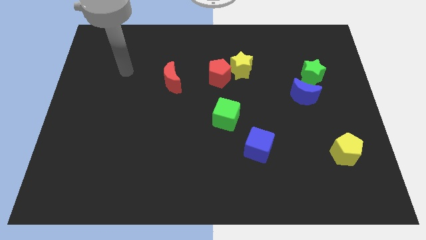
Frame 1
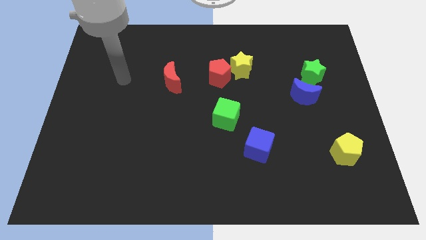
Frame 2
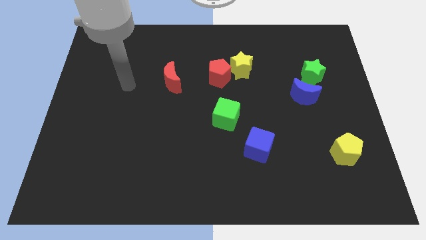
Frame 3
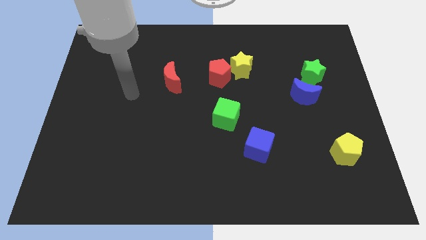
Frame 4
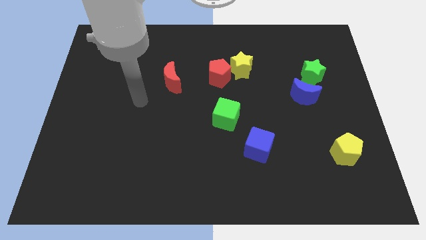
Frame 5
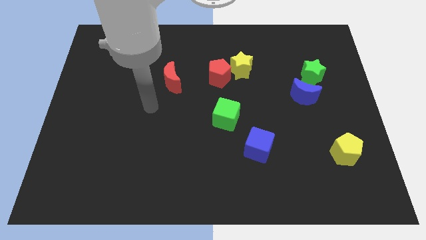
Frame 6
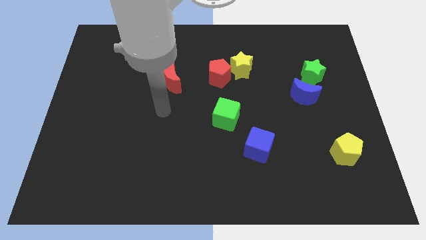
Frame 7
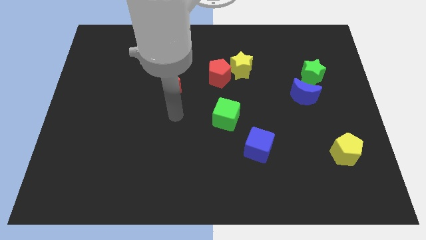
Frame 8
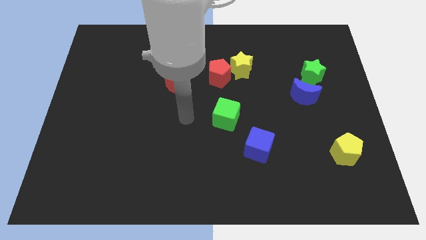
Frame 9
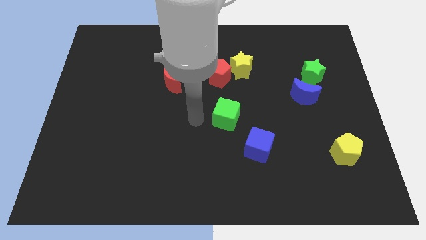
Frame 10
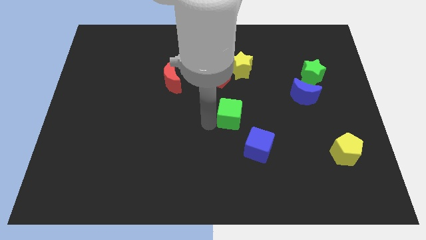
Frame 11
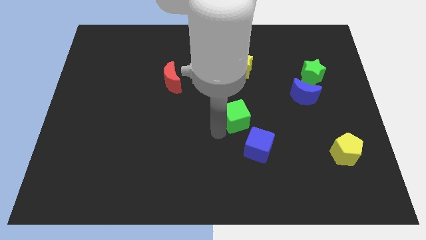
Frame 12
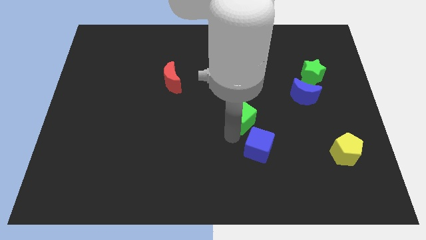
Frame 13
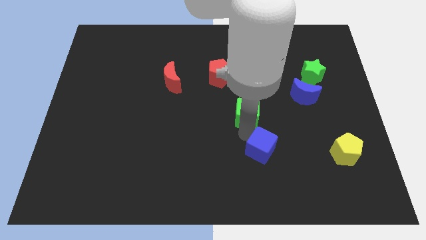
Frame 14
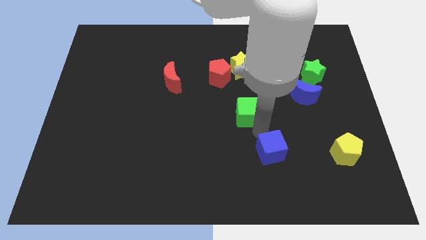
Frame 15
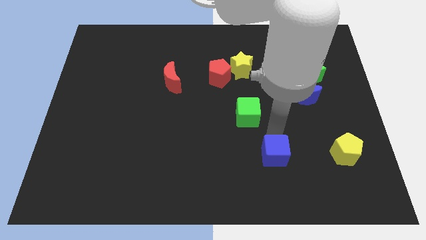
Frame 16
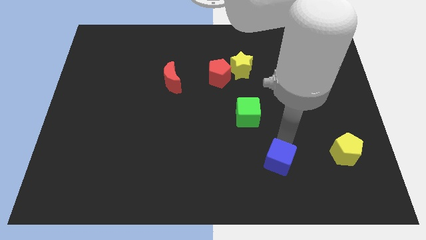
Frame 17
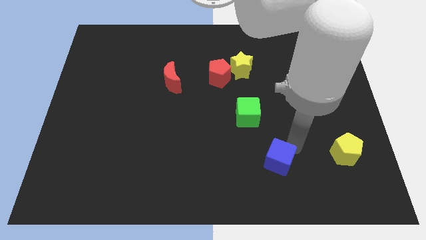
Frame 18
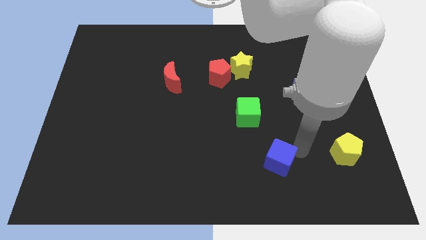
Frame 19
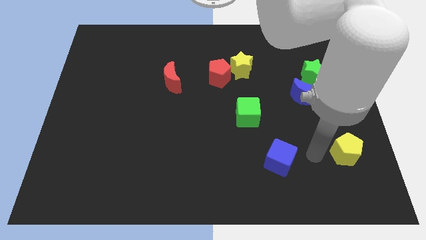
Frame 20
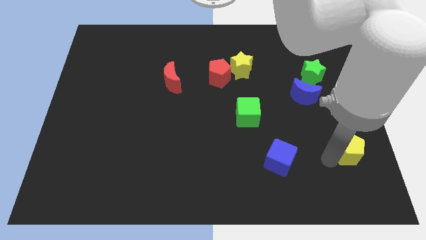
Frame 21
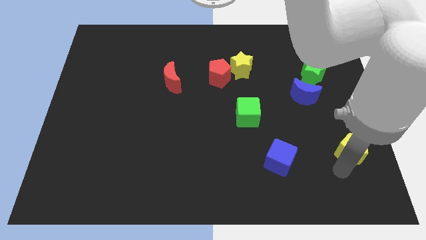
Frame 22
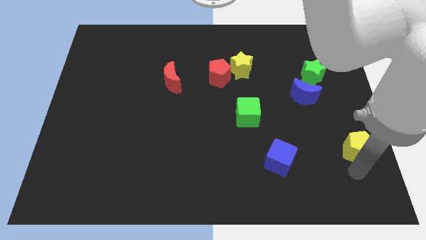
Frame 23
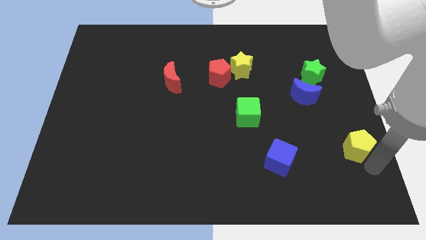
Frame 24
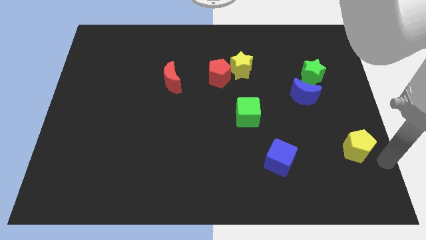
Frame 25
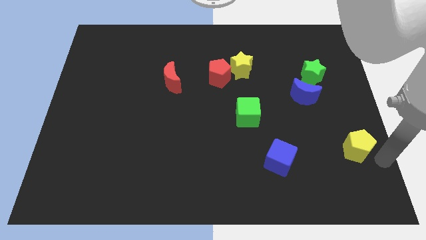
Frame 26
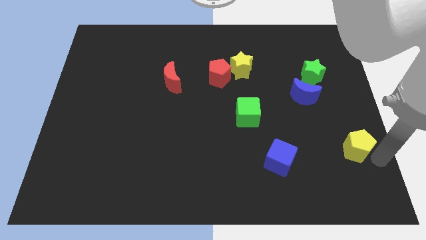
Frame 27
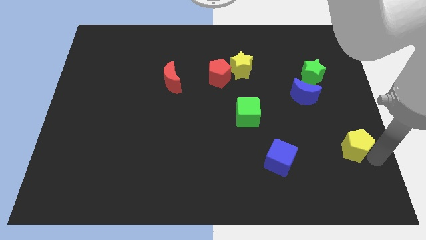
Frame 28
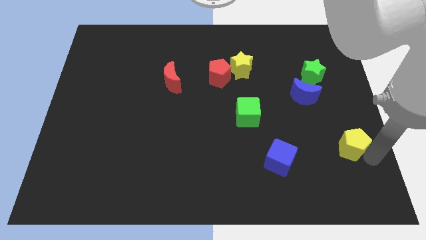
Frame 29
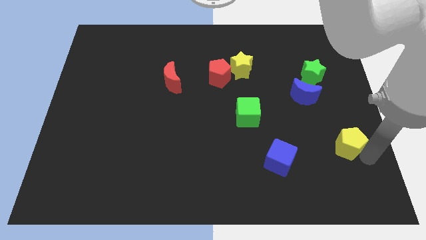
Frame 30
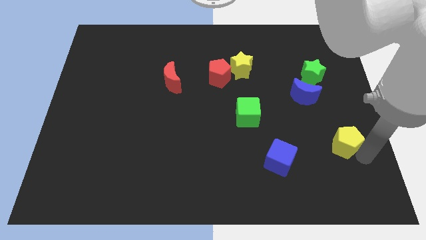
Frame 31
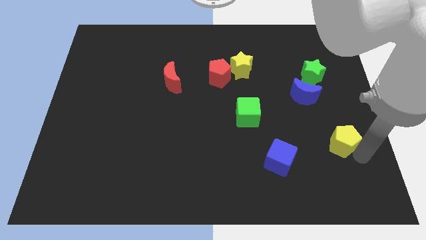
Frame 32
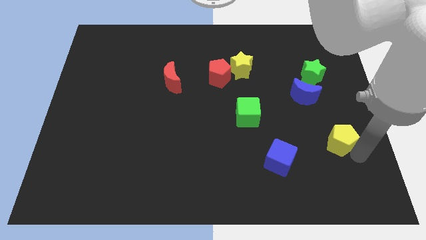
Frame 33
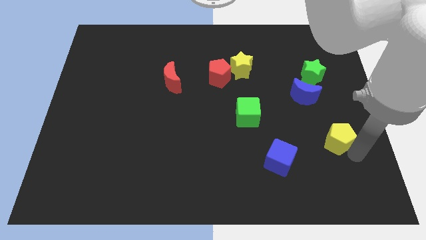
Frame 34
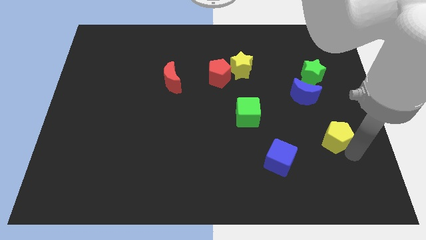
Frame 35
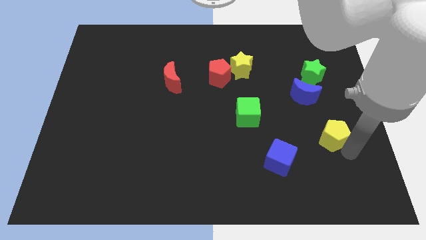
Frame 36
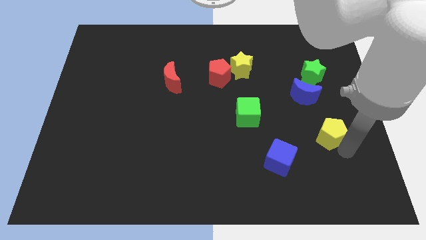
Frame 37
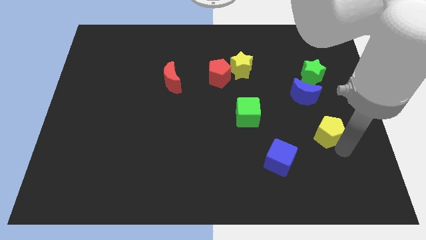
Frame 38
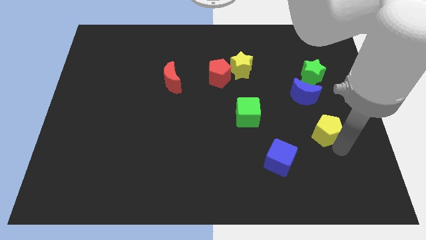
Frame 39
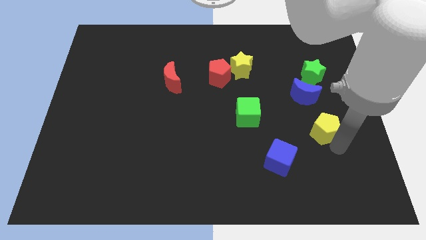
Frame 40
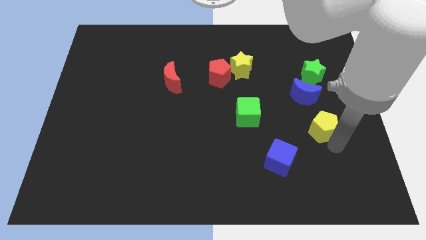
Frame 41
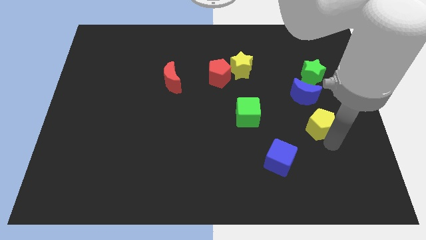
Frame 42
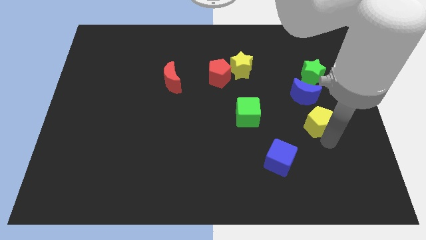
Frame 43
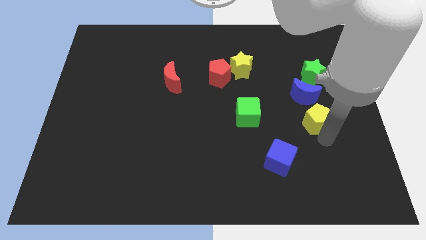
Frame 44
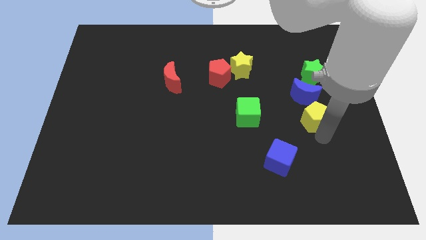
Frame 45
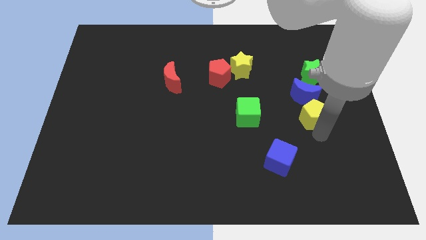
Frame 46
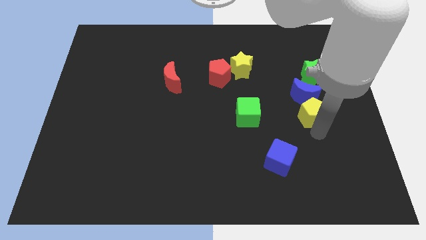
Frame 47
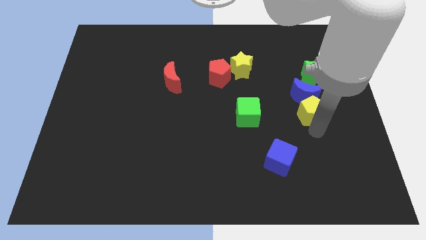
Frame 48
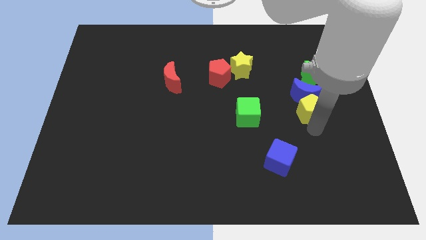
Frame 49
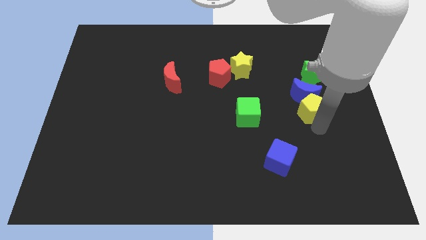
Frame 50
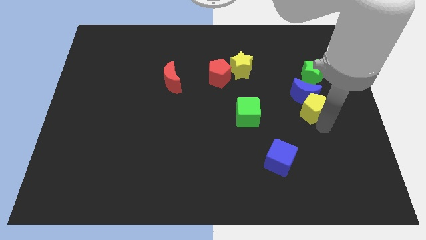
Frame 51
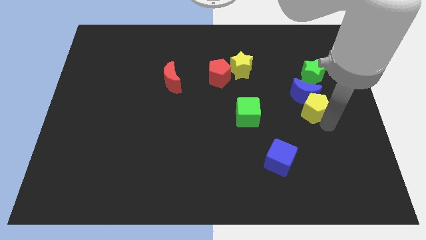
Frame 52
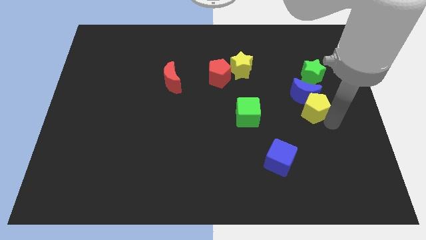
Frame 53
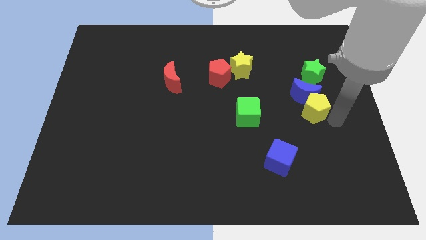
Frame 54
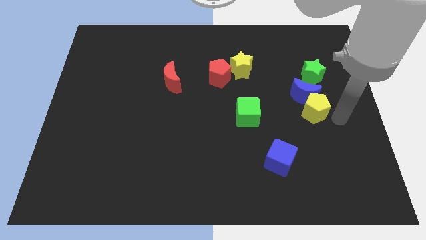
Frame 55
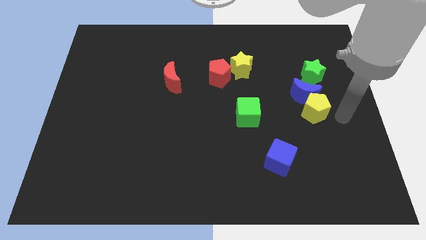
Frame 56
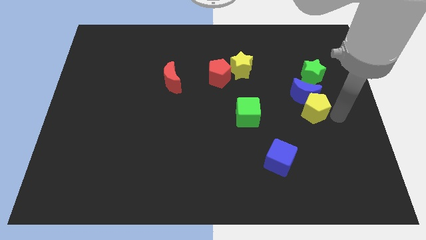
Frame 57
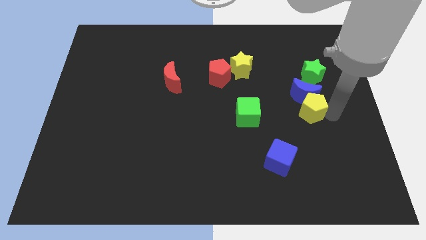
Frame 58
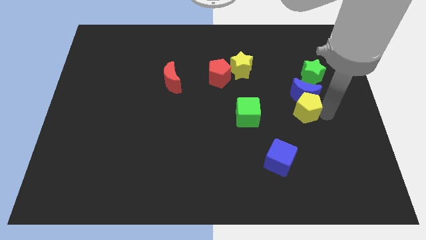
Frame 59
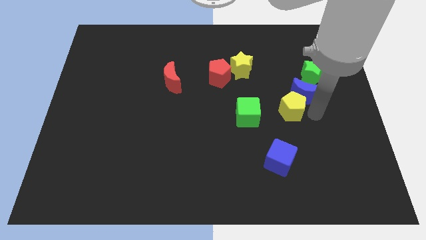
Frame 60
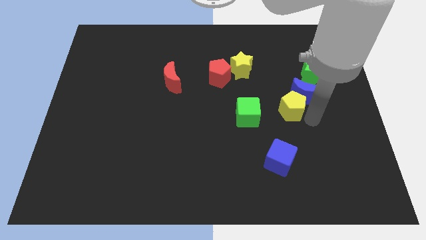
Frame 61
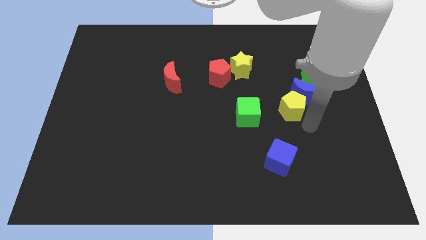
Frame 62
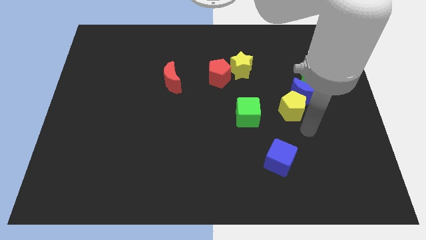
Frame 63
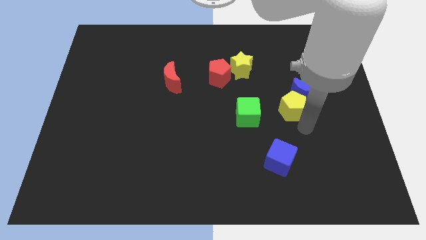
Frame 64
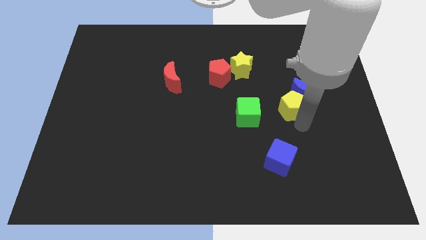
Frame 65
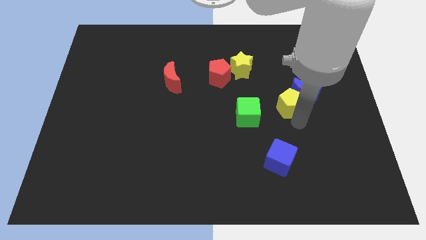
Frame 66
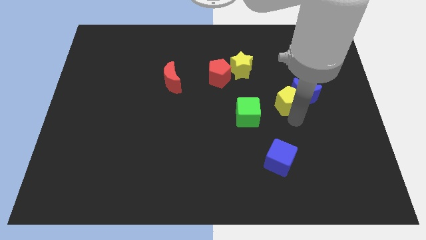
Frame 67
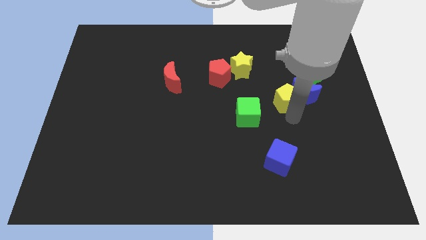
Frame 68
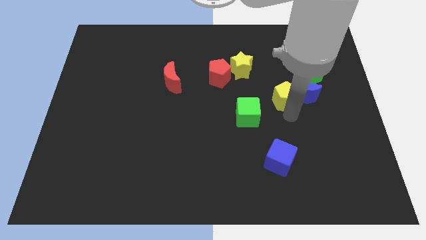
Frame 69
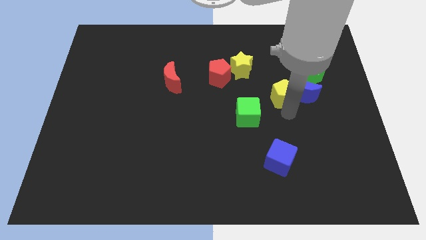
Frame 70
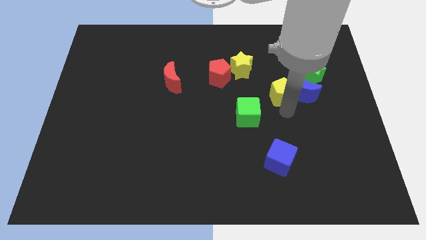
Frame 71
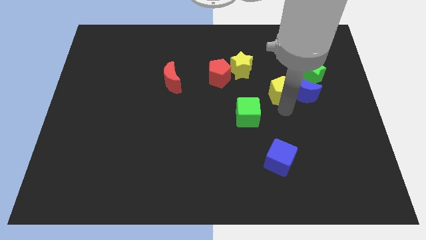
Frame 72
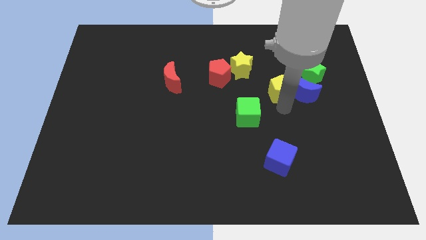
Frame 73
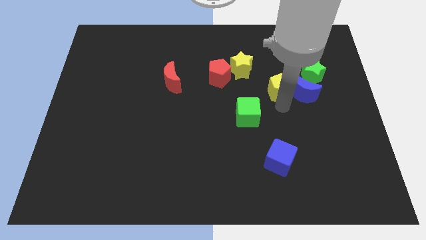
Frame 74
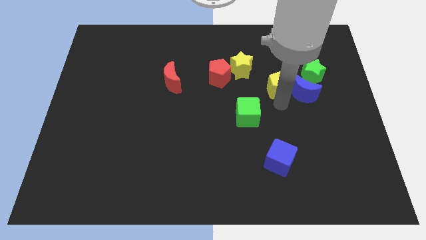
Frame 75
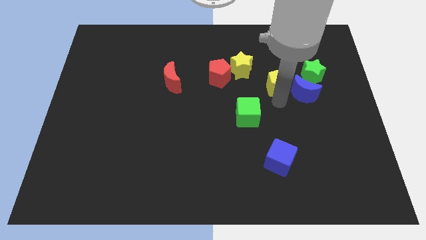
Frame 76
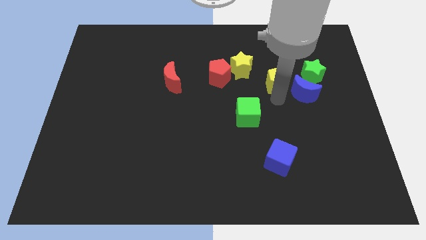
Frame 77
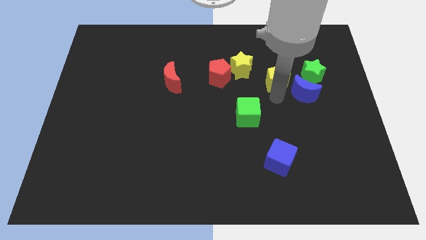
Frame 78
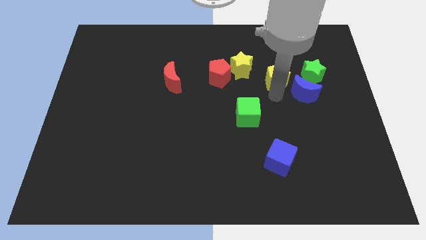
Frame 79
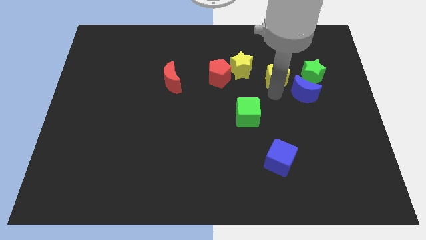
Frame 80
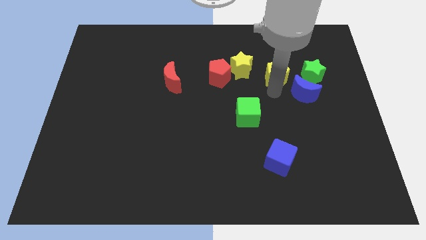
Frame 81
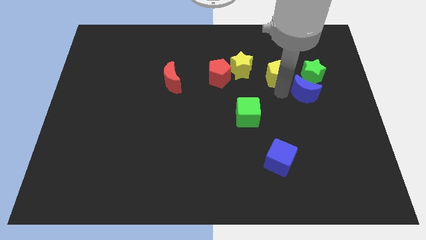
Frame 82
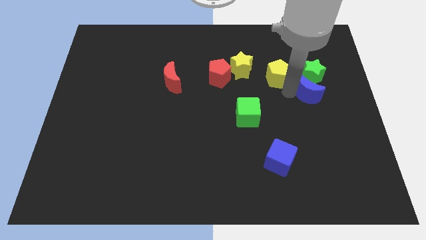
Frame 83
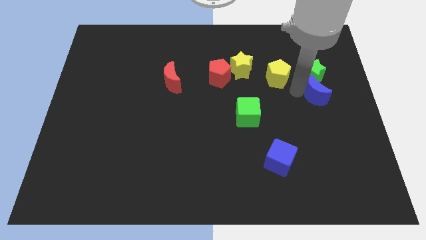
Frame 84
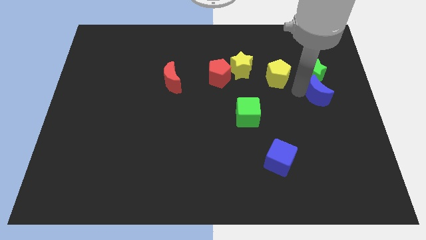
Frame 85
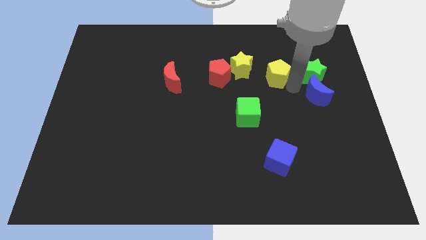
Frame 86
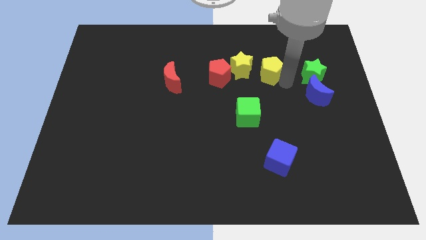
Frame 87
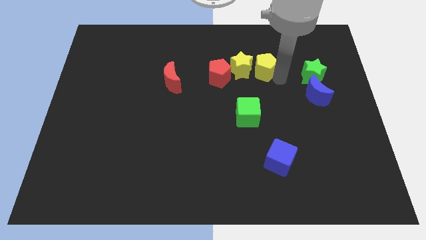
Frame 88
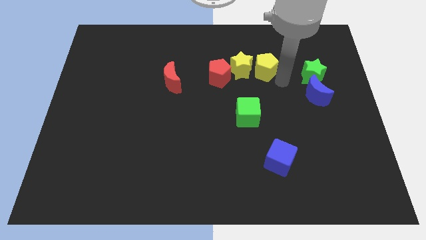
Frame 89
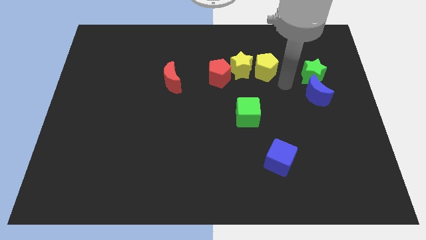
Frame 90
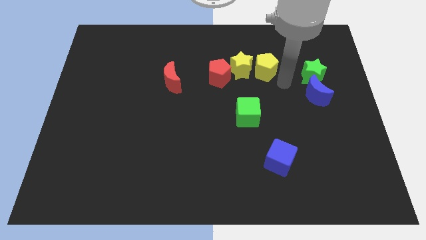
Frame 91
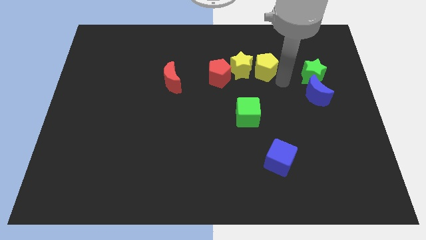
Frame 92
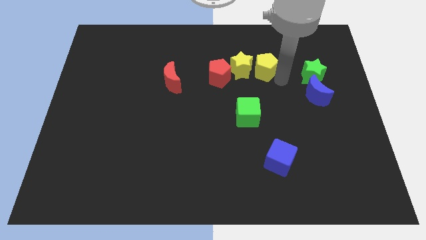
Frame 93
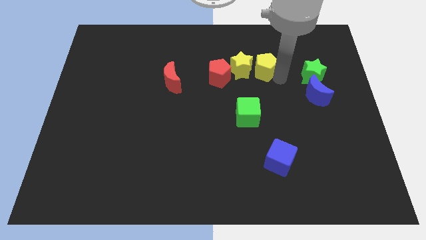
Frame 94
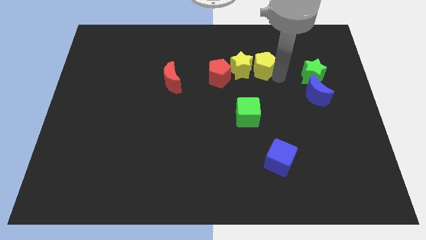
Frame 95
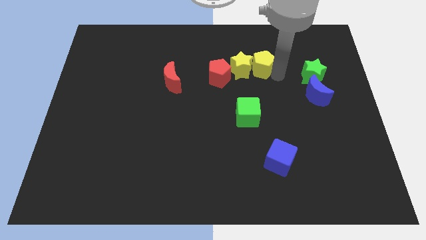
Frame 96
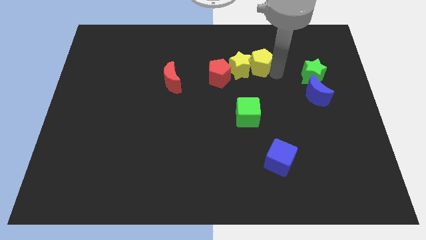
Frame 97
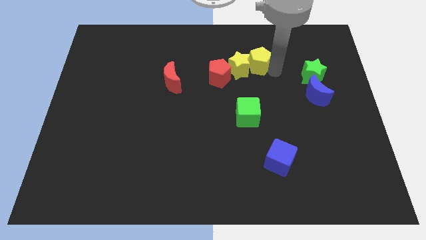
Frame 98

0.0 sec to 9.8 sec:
slide the yellow pentagon to the top right of the red pentagon
